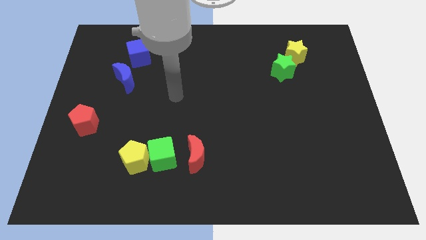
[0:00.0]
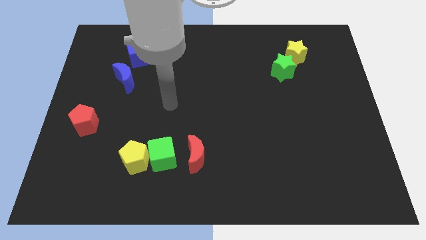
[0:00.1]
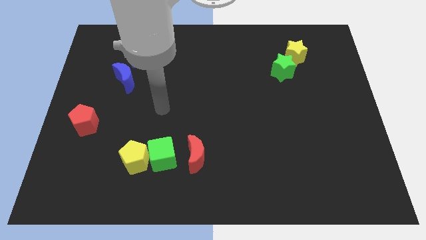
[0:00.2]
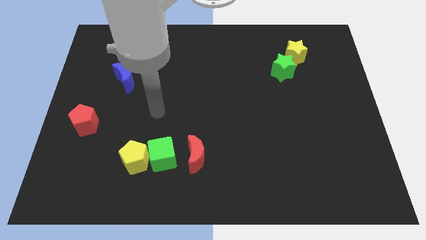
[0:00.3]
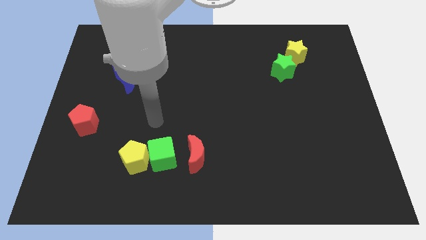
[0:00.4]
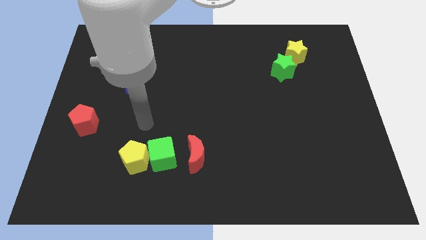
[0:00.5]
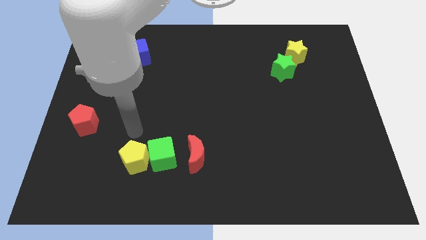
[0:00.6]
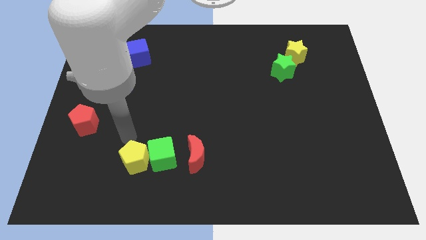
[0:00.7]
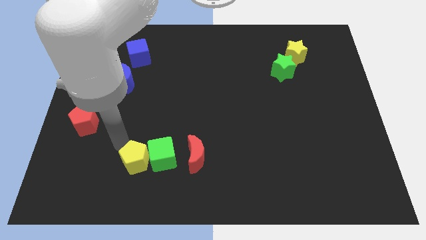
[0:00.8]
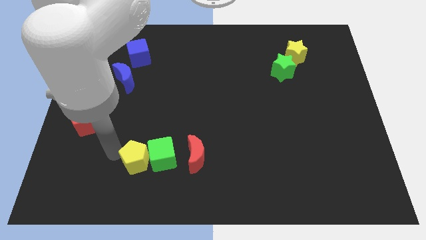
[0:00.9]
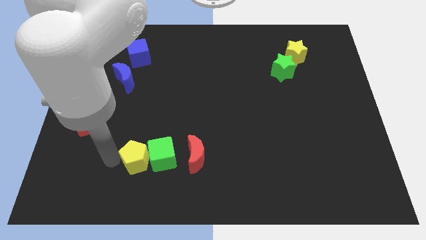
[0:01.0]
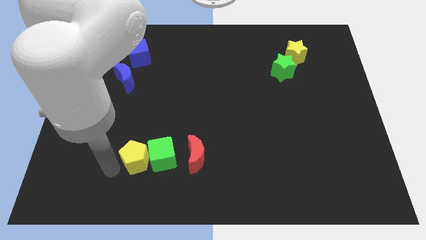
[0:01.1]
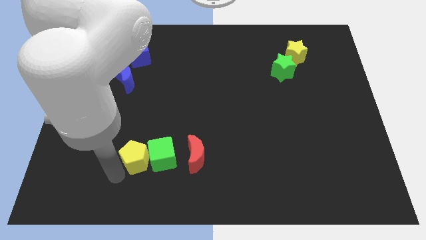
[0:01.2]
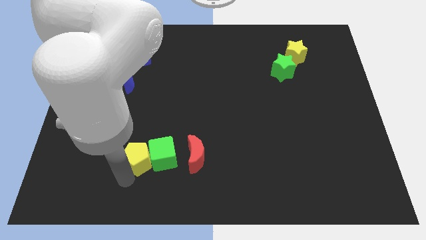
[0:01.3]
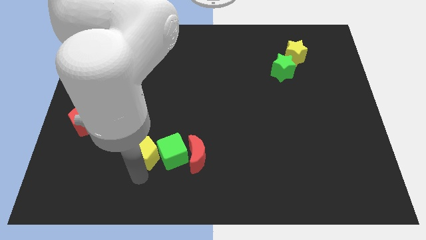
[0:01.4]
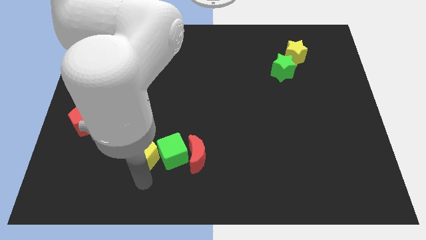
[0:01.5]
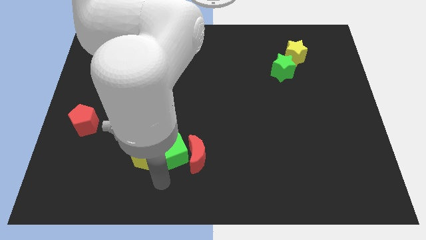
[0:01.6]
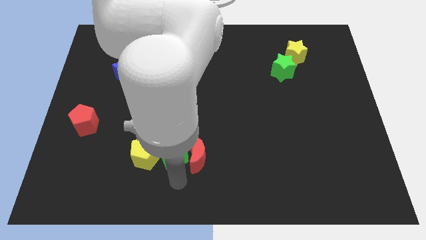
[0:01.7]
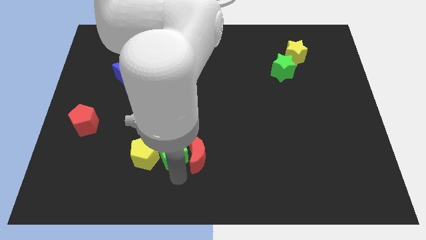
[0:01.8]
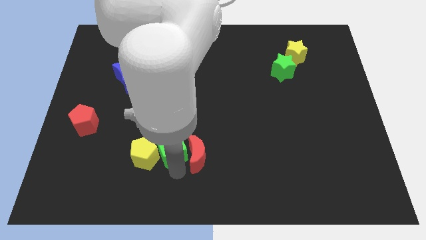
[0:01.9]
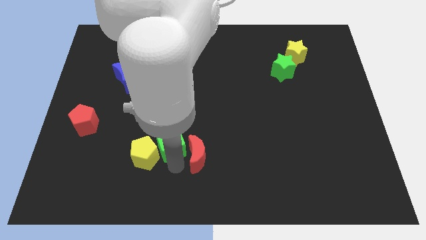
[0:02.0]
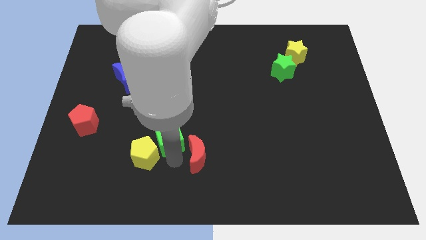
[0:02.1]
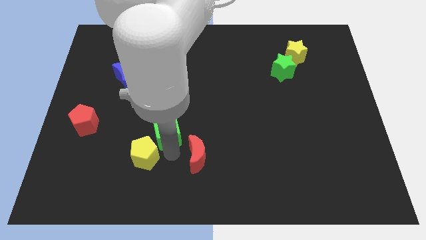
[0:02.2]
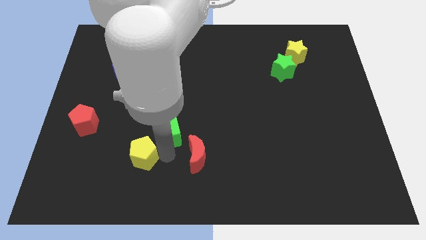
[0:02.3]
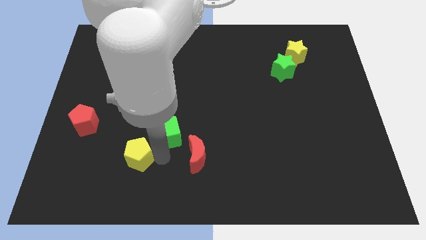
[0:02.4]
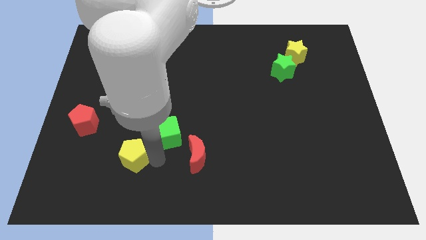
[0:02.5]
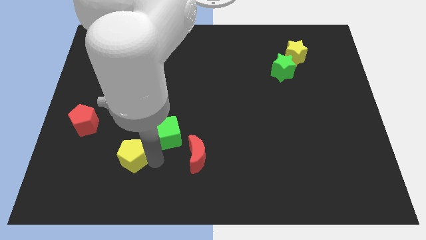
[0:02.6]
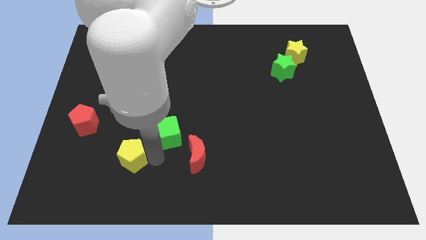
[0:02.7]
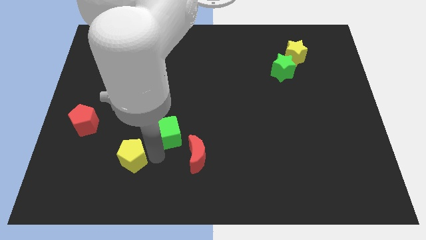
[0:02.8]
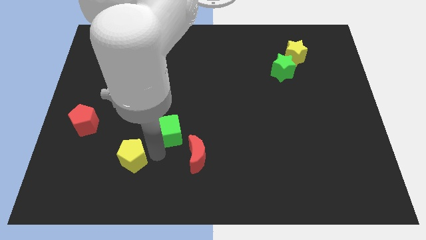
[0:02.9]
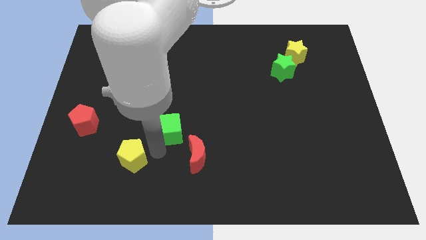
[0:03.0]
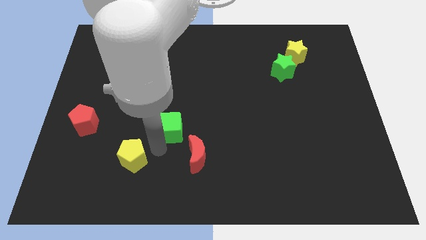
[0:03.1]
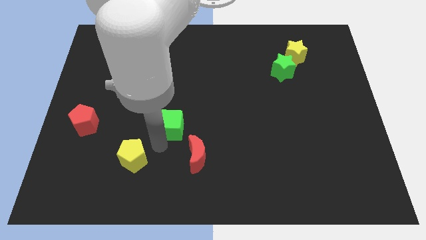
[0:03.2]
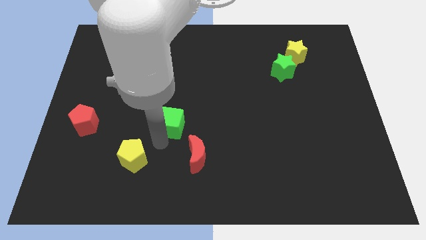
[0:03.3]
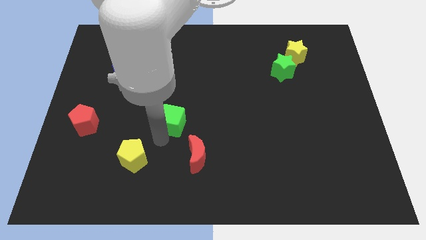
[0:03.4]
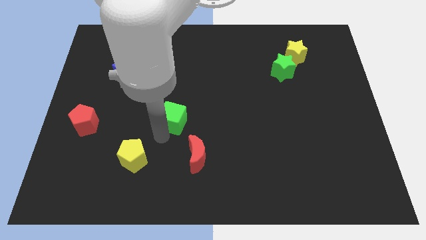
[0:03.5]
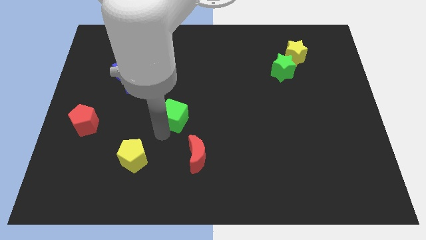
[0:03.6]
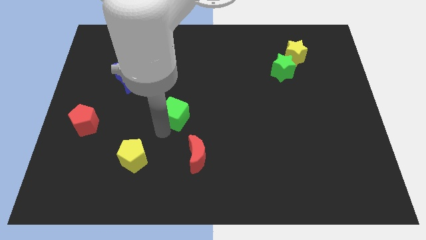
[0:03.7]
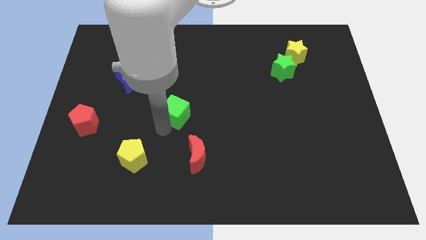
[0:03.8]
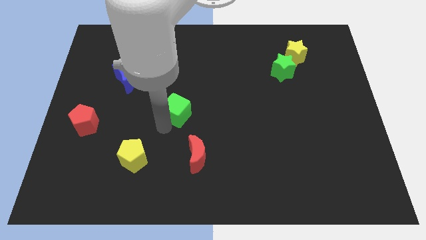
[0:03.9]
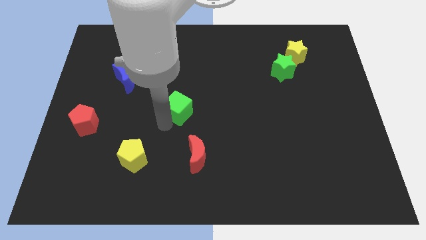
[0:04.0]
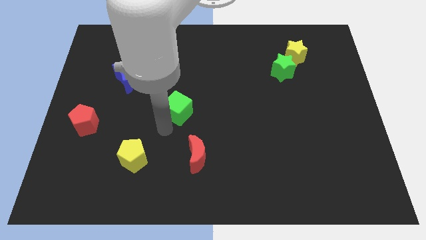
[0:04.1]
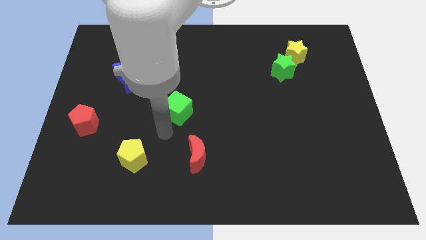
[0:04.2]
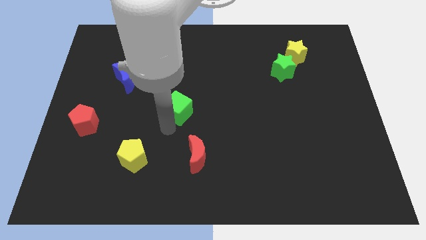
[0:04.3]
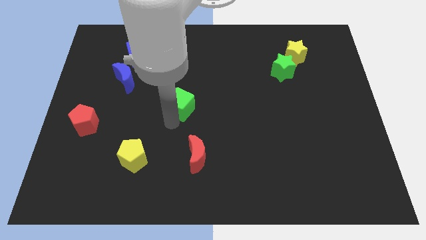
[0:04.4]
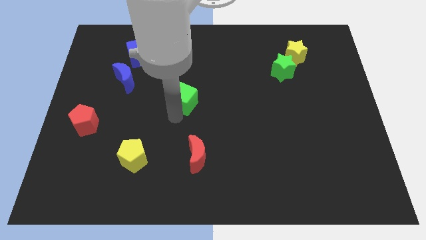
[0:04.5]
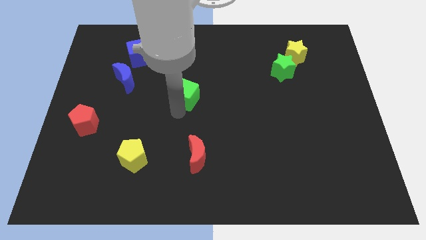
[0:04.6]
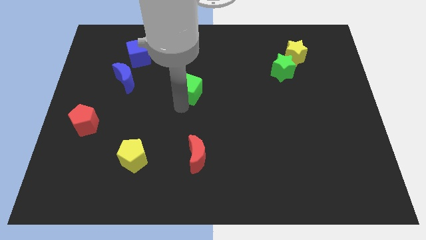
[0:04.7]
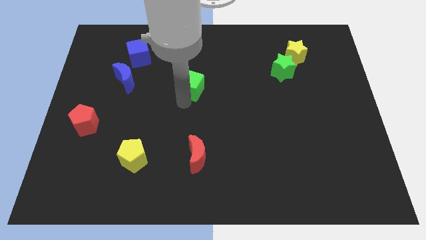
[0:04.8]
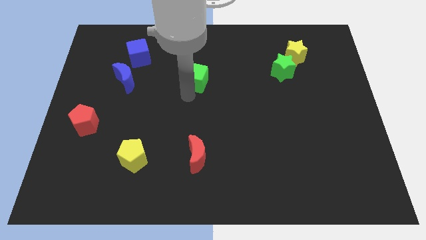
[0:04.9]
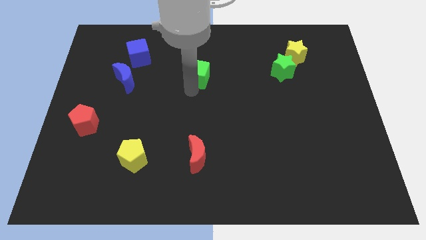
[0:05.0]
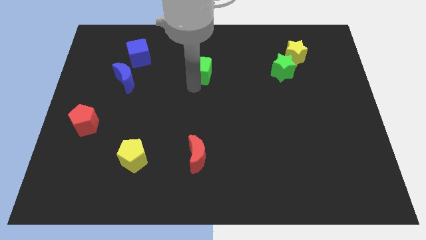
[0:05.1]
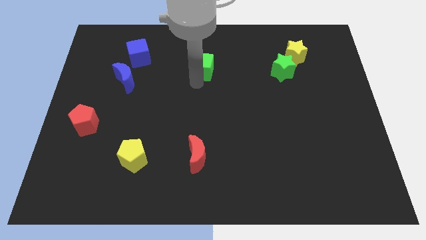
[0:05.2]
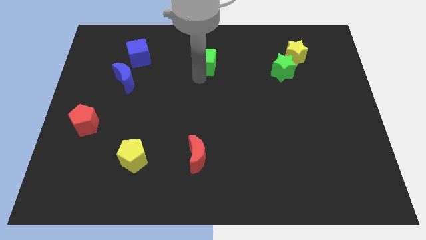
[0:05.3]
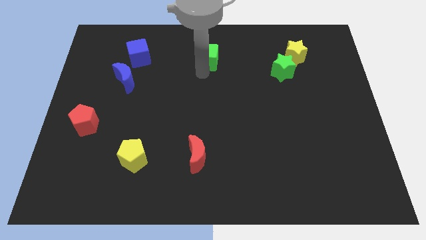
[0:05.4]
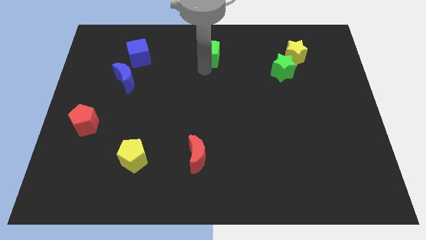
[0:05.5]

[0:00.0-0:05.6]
move the green cube to the top
